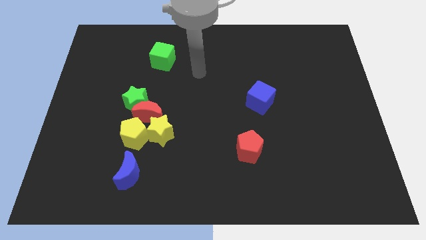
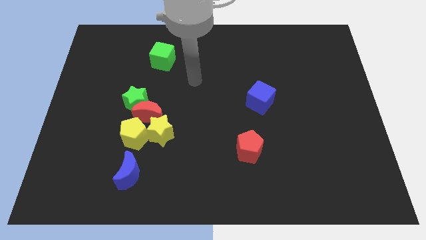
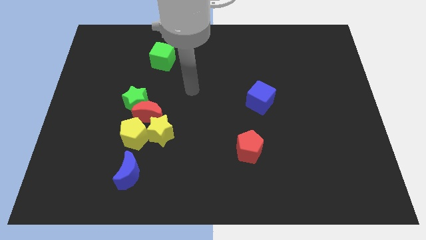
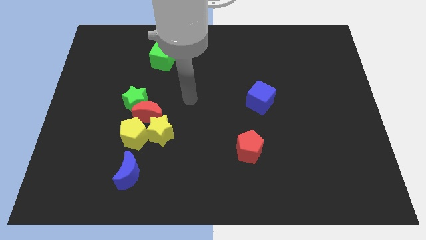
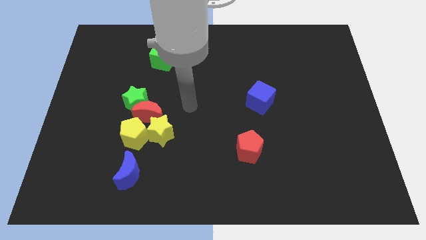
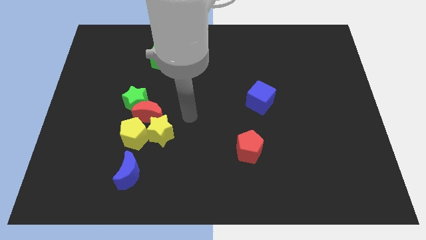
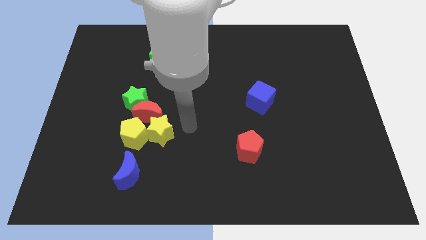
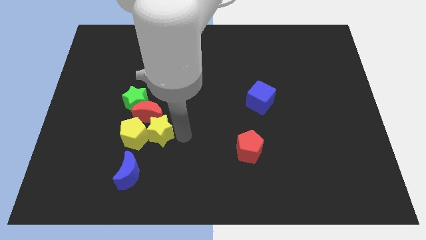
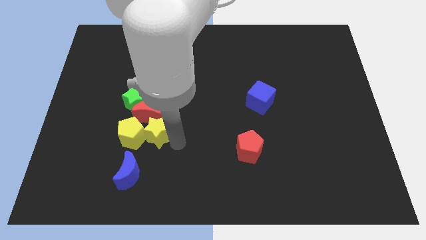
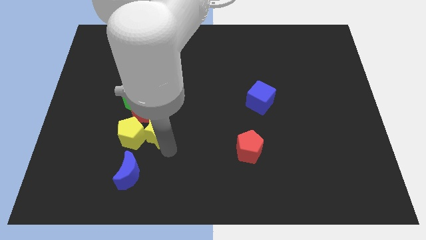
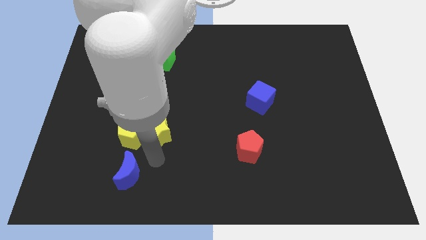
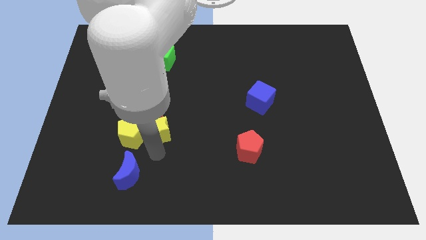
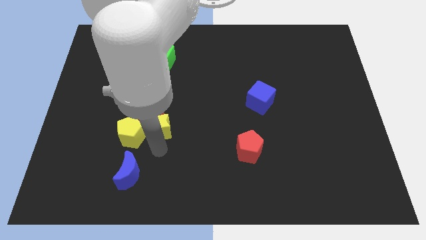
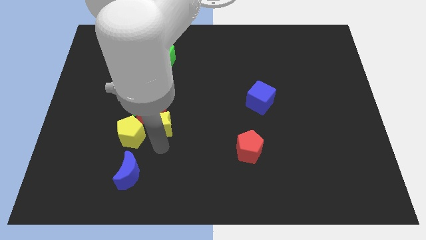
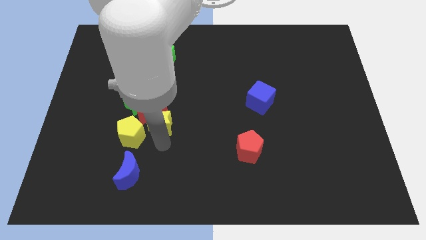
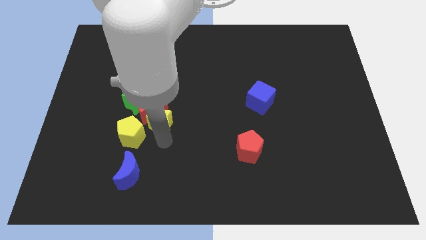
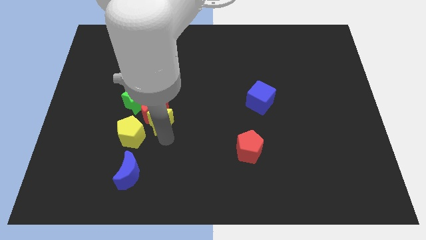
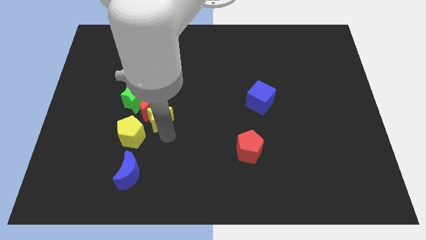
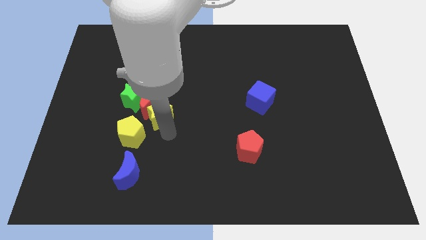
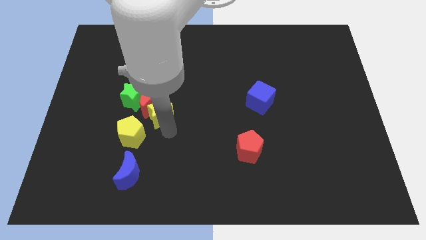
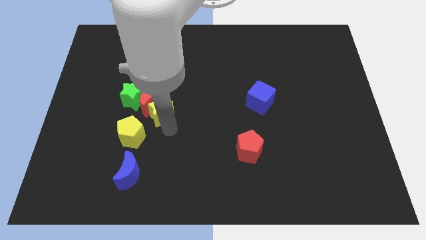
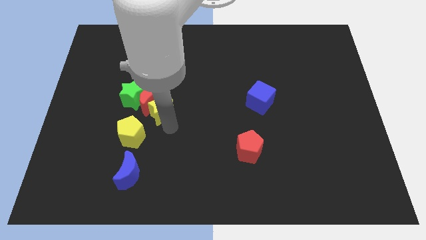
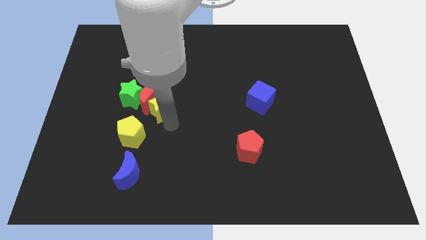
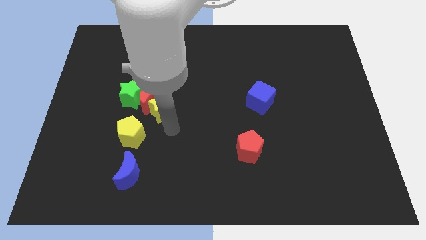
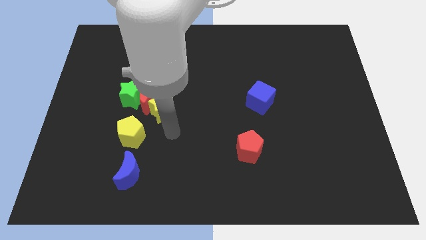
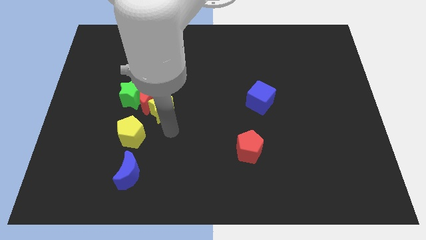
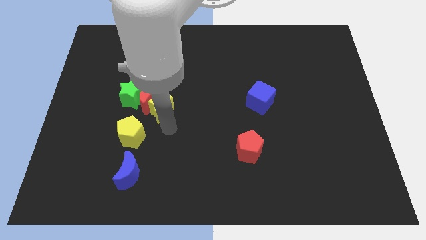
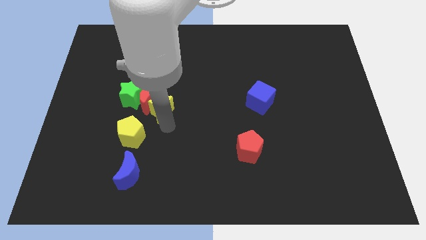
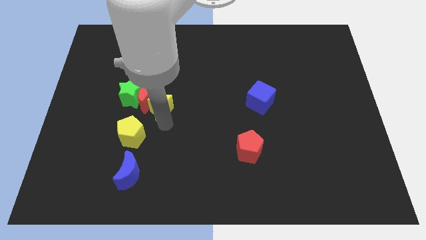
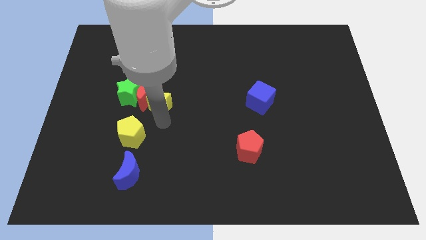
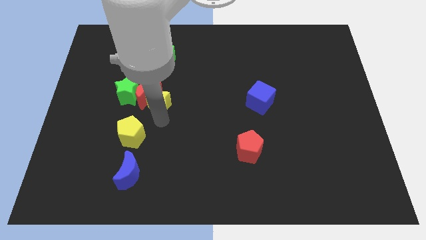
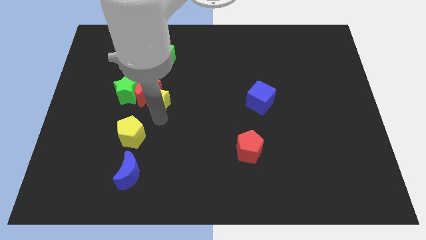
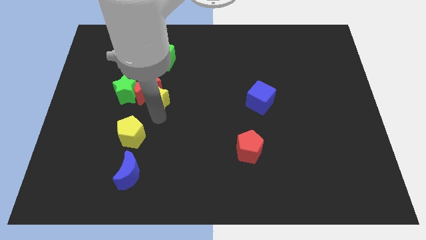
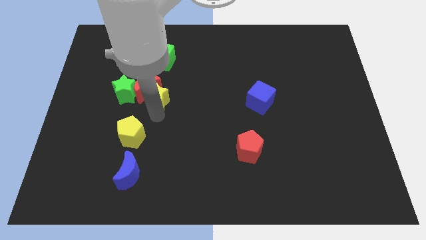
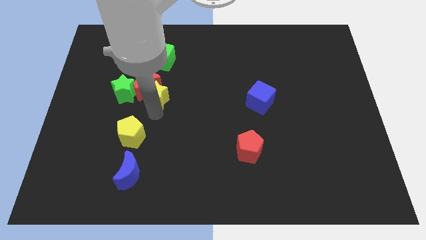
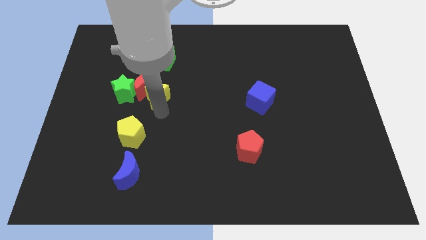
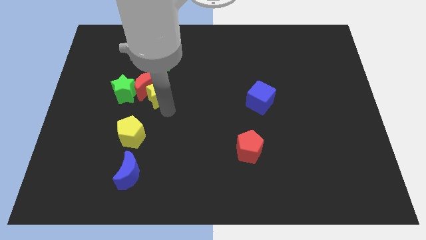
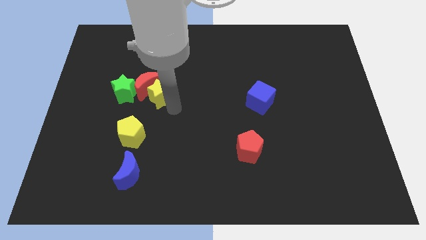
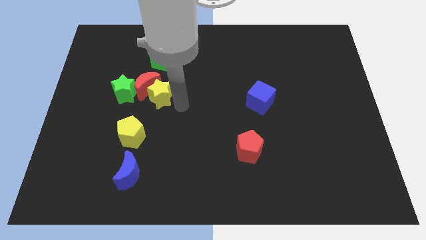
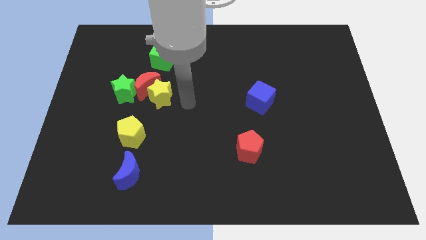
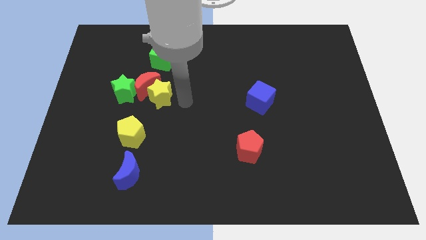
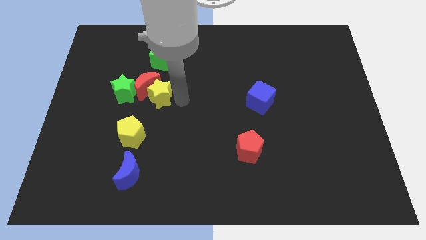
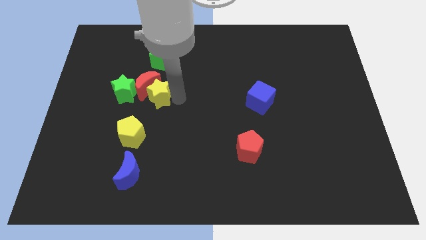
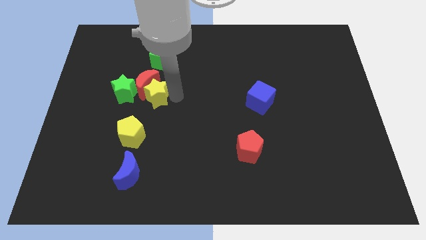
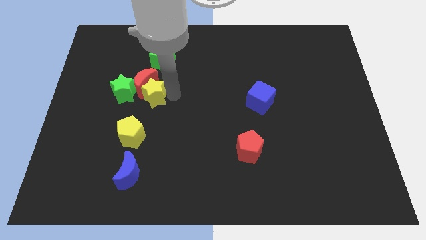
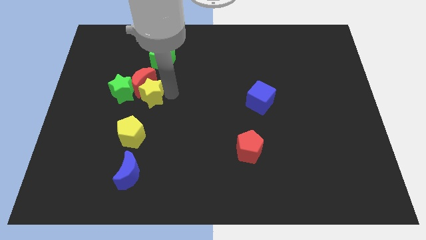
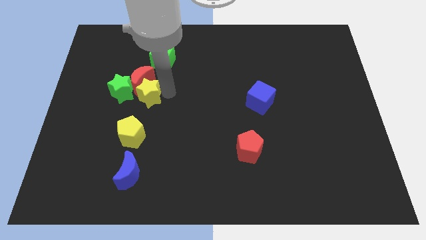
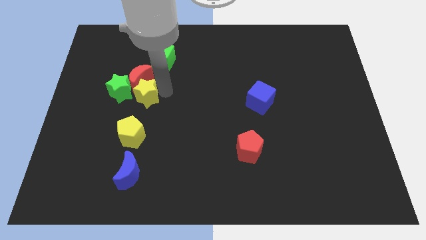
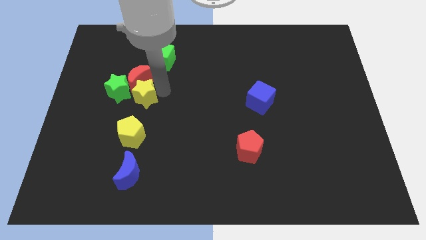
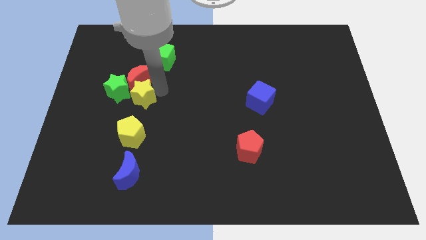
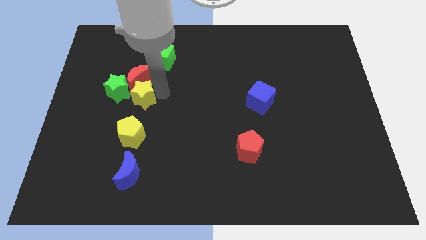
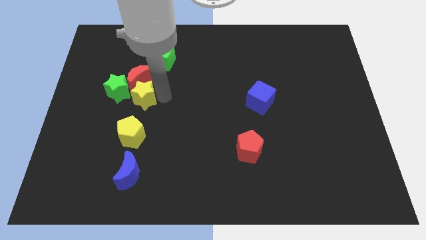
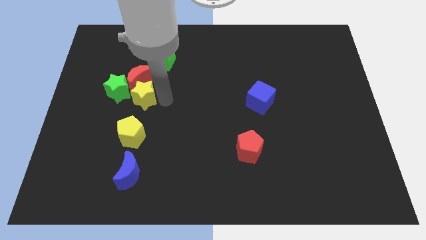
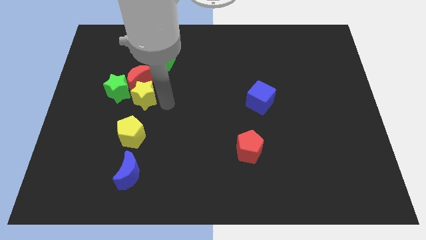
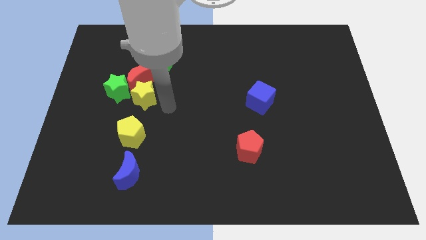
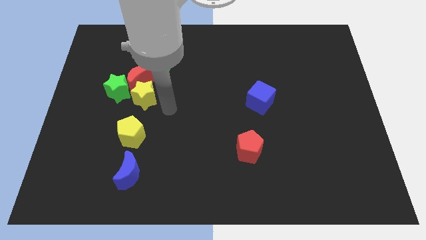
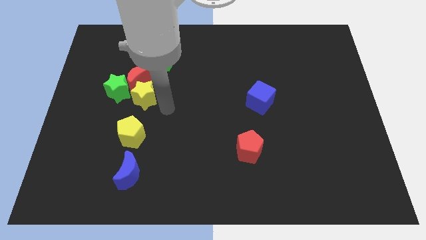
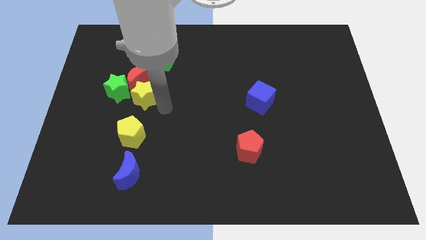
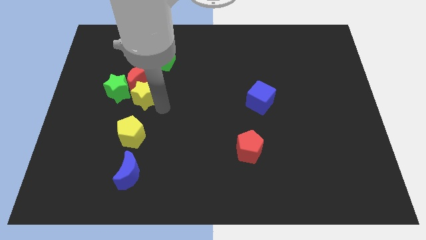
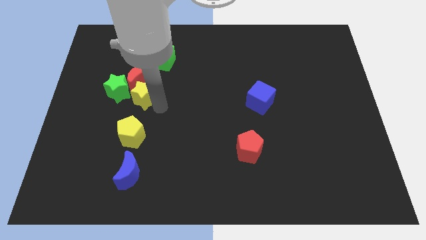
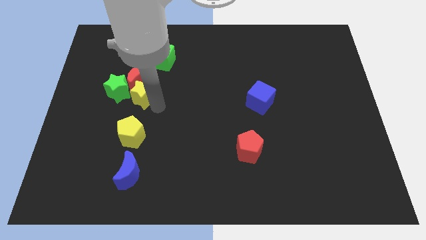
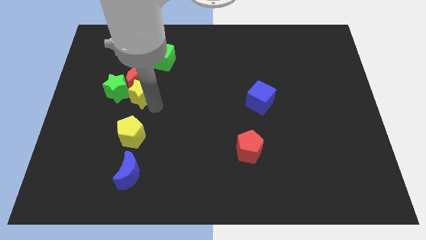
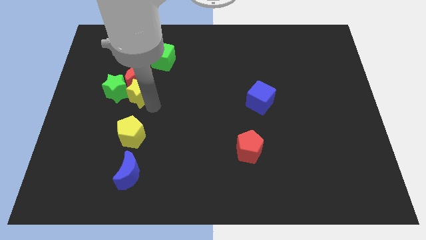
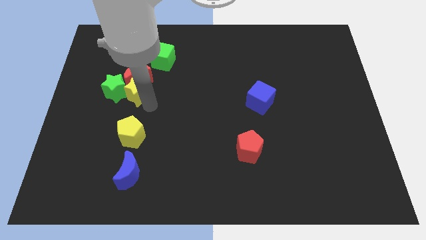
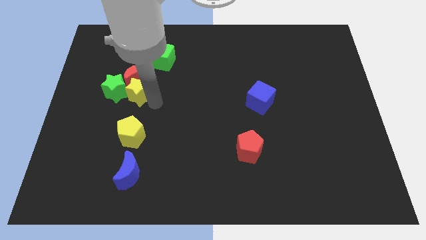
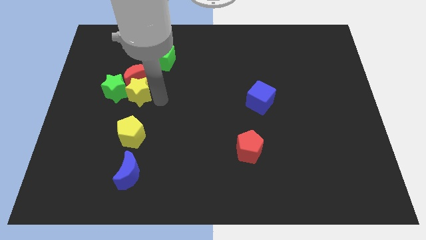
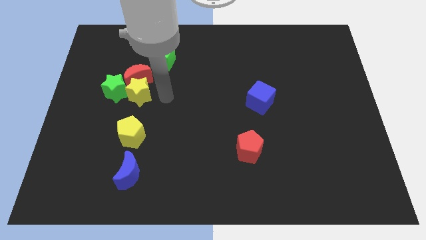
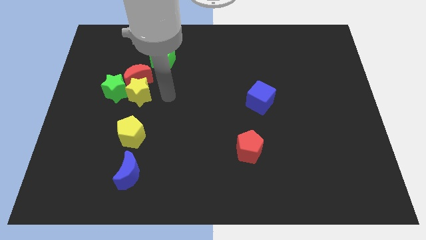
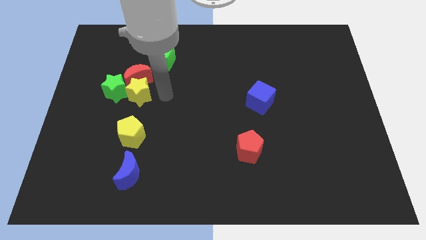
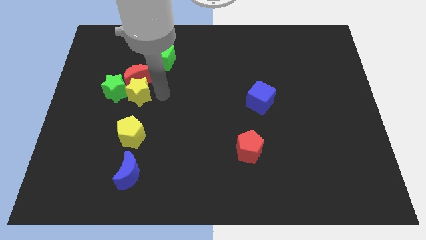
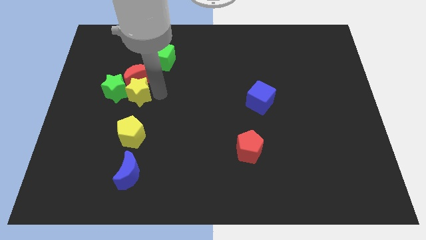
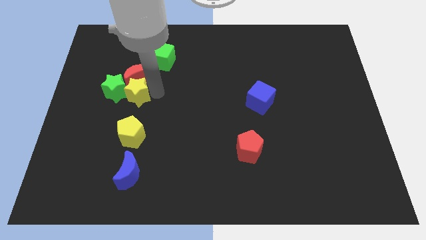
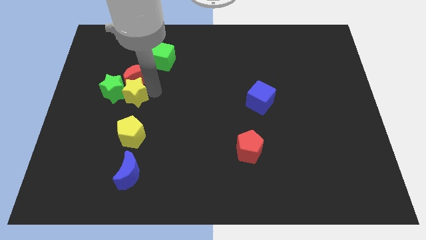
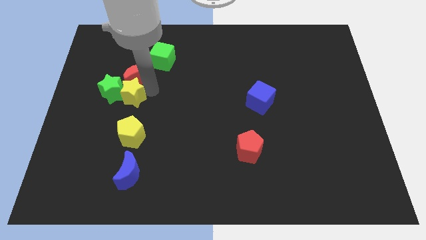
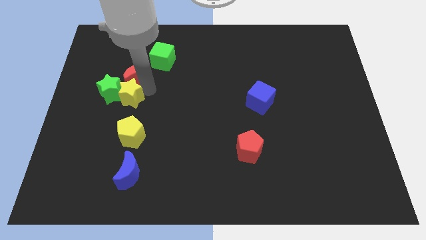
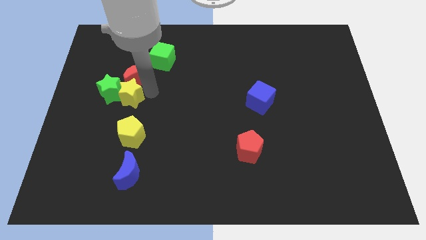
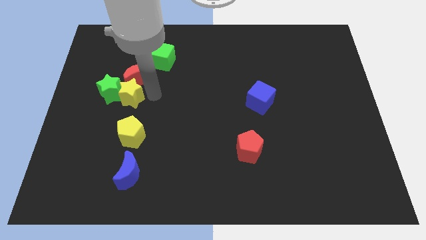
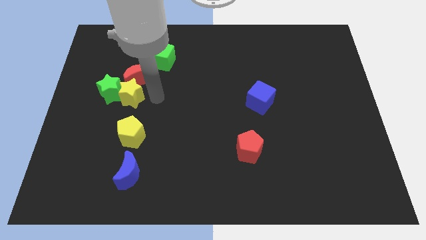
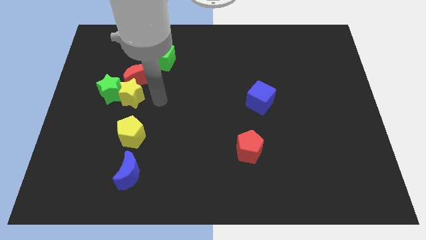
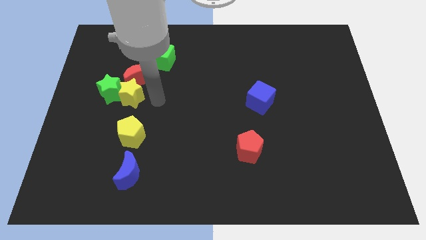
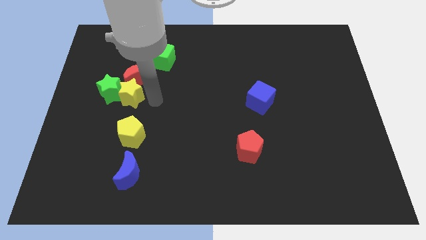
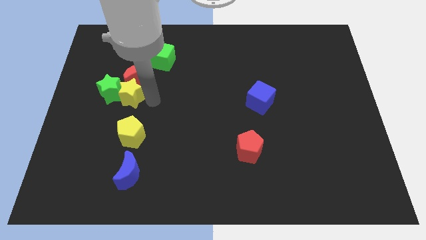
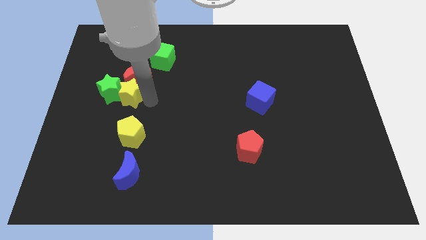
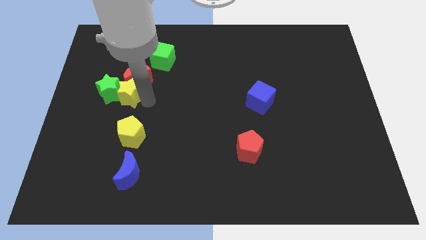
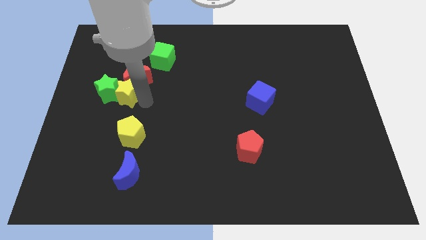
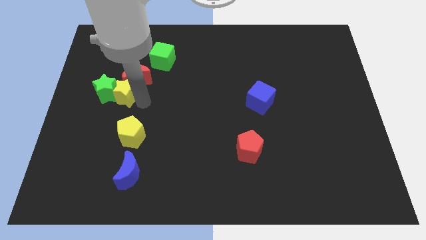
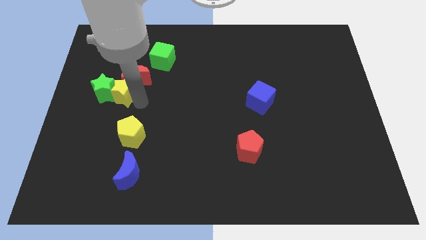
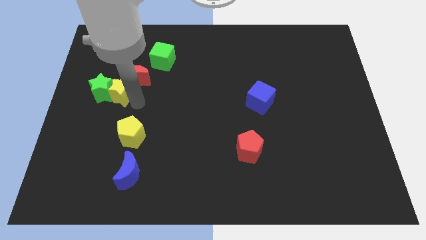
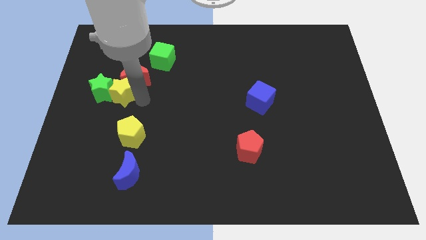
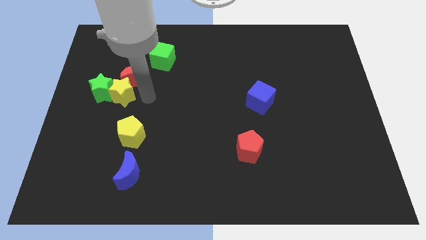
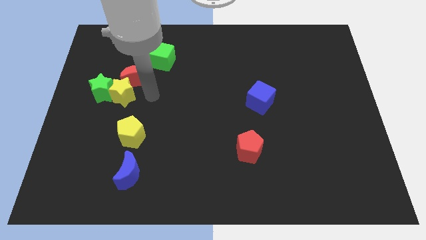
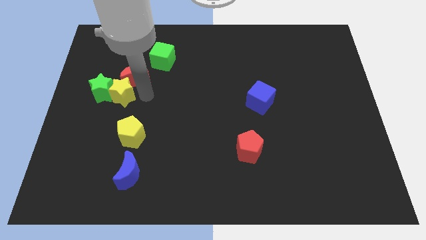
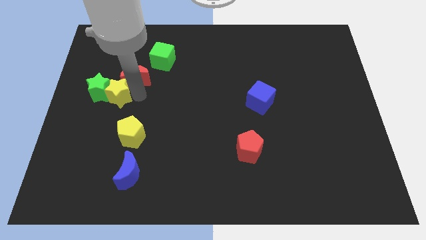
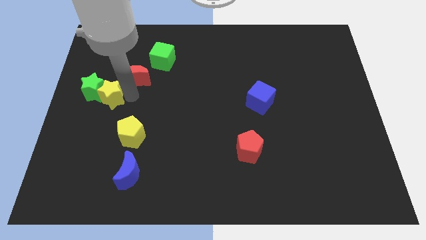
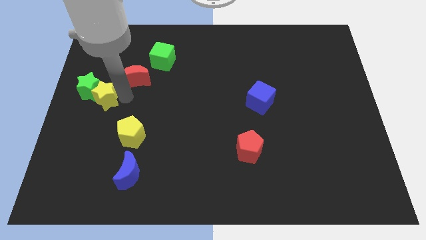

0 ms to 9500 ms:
push the yellow star to the left side of the board
